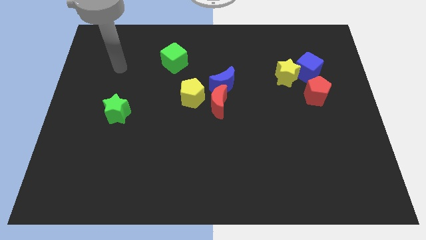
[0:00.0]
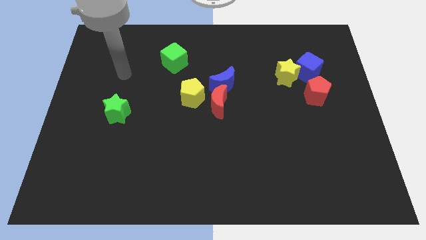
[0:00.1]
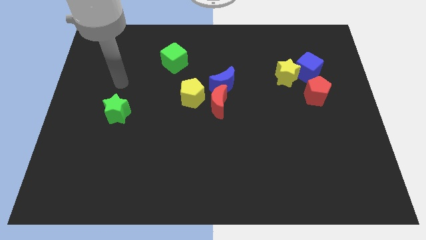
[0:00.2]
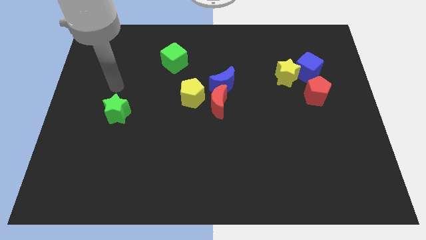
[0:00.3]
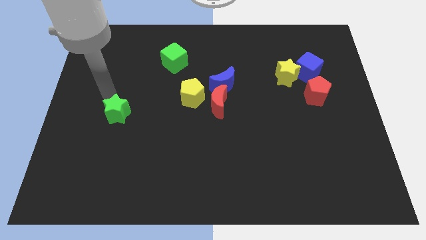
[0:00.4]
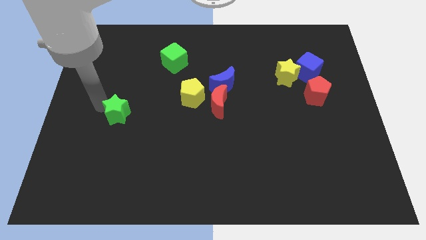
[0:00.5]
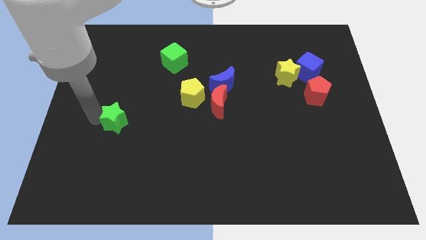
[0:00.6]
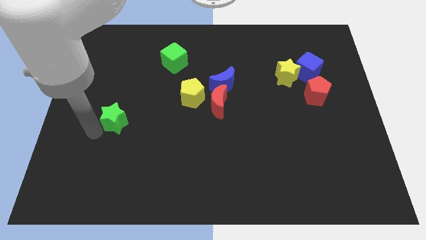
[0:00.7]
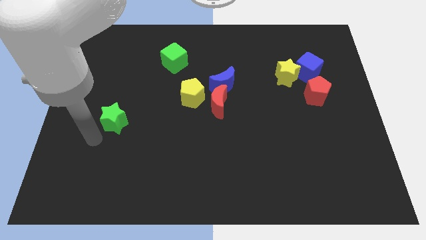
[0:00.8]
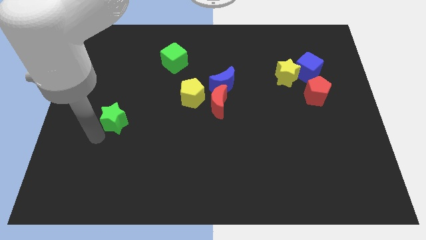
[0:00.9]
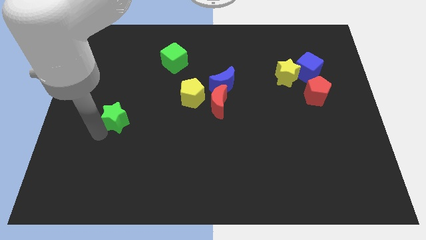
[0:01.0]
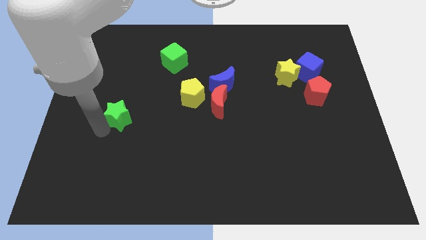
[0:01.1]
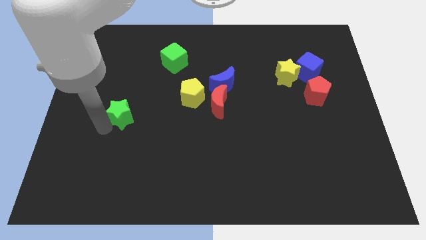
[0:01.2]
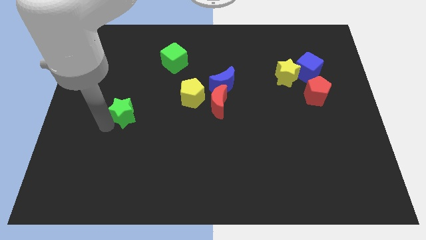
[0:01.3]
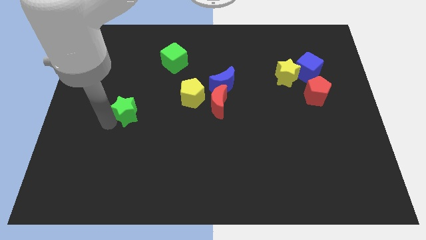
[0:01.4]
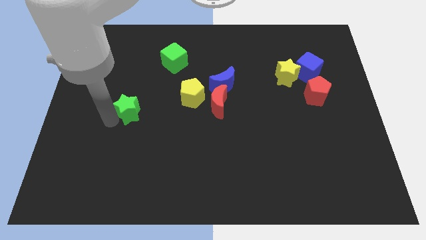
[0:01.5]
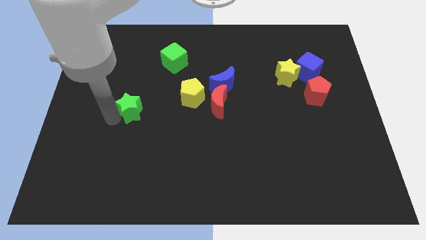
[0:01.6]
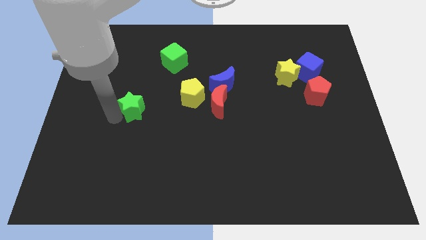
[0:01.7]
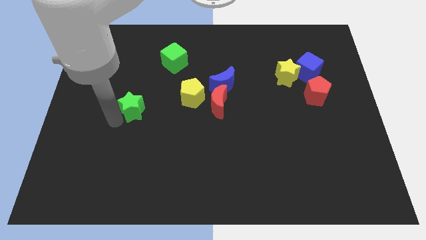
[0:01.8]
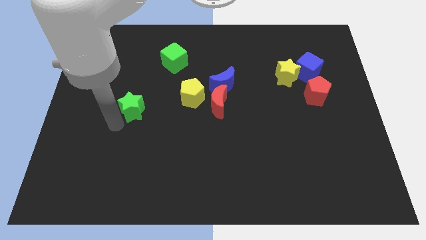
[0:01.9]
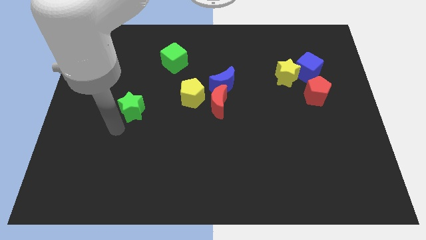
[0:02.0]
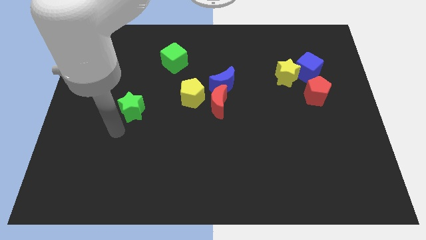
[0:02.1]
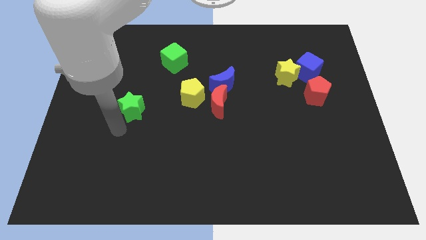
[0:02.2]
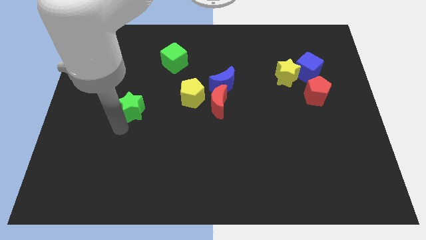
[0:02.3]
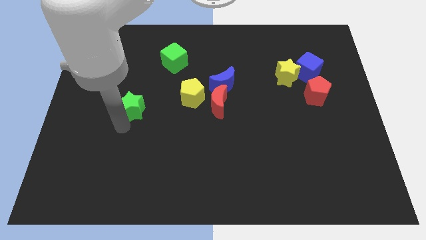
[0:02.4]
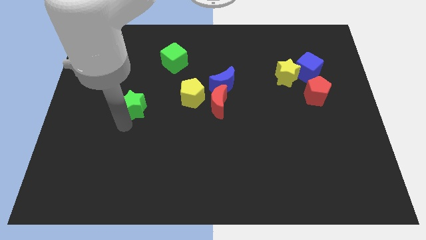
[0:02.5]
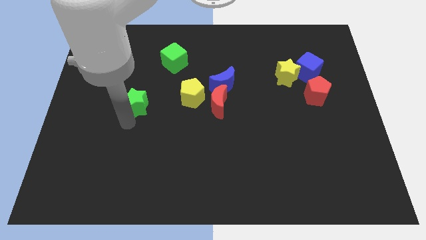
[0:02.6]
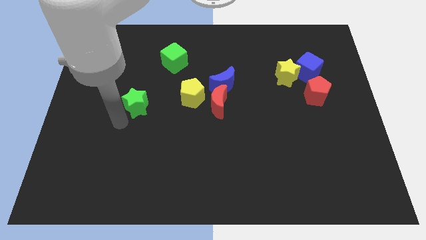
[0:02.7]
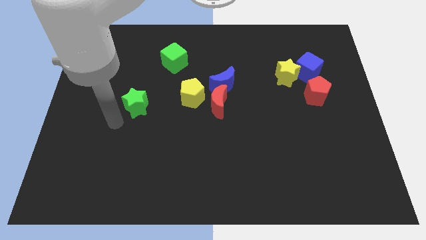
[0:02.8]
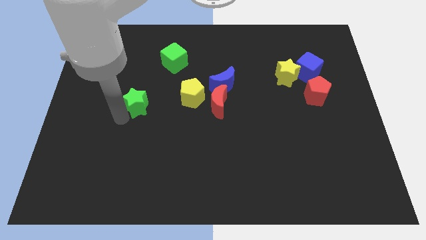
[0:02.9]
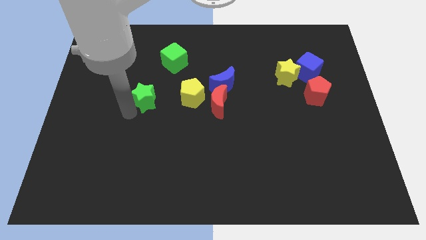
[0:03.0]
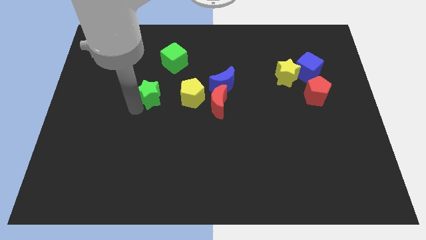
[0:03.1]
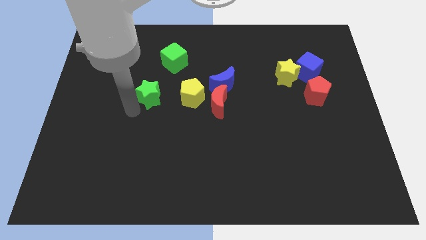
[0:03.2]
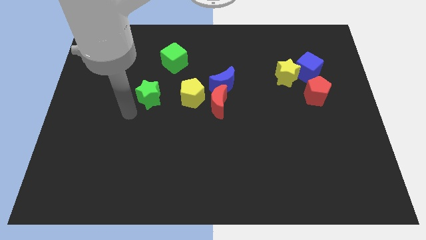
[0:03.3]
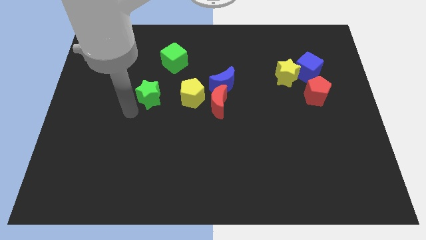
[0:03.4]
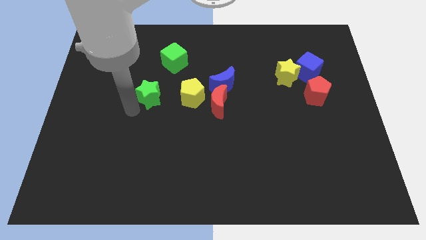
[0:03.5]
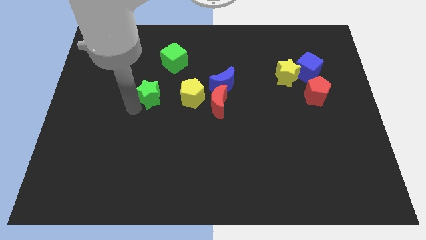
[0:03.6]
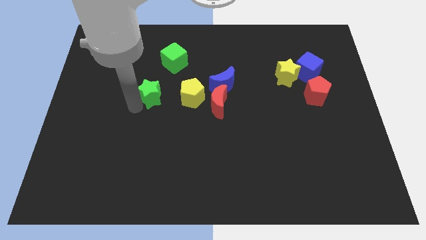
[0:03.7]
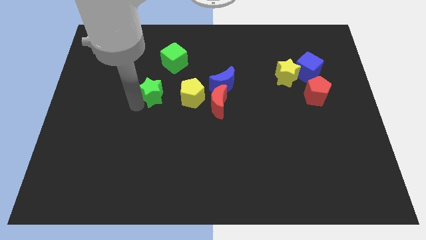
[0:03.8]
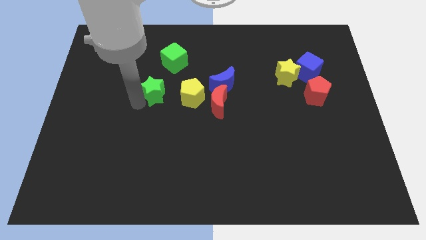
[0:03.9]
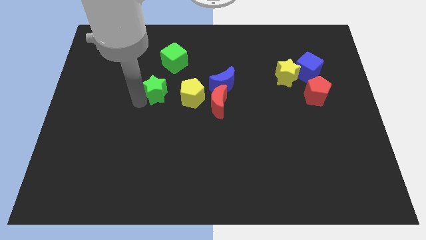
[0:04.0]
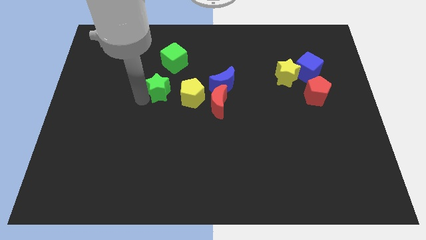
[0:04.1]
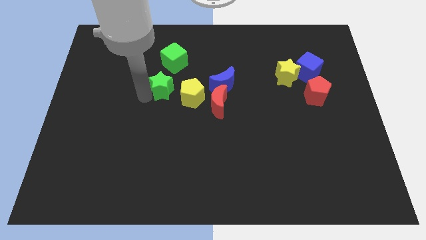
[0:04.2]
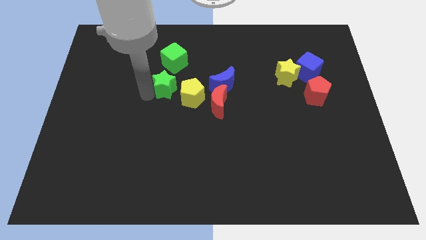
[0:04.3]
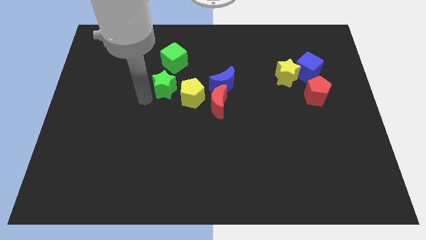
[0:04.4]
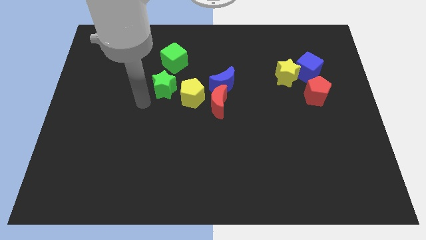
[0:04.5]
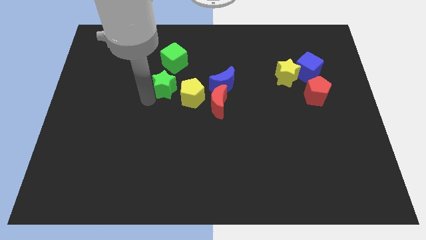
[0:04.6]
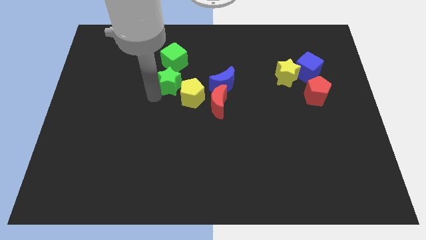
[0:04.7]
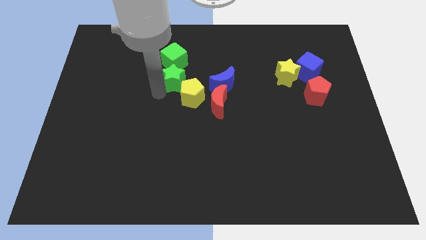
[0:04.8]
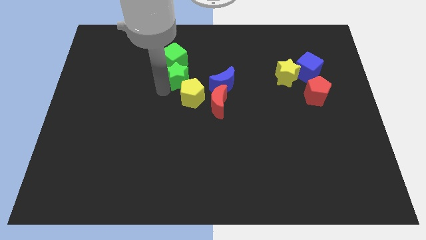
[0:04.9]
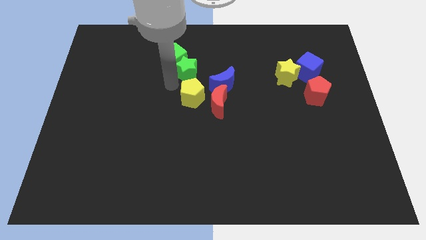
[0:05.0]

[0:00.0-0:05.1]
move the green star just right of the green cube

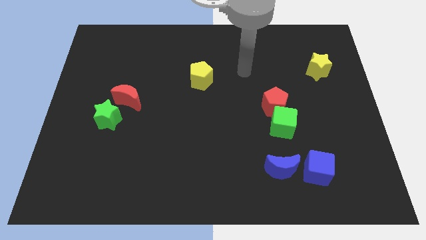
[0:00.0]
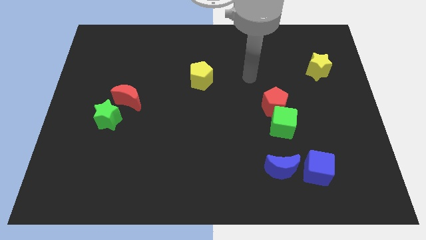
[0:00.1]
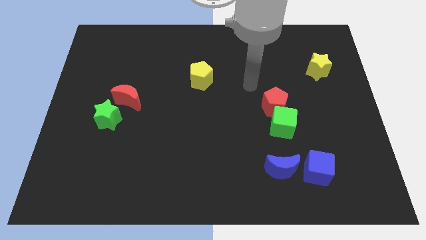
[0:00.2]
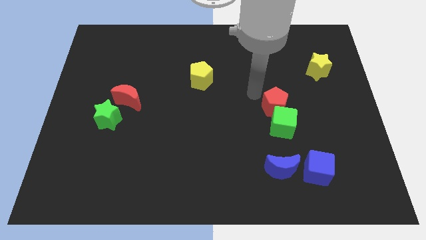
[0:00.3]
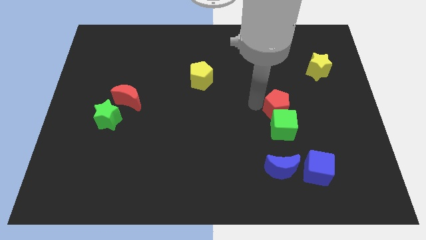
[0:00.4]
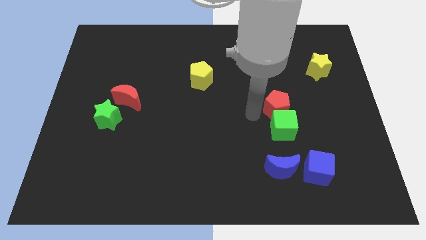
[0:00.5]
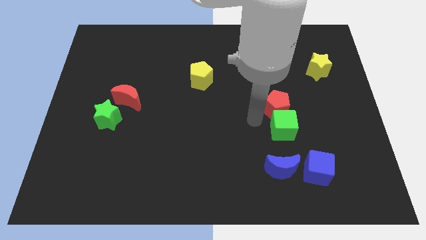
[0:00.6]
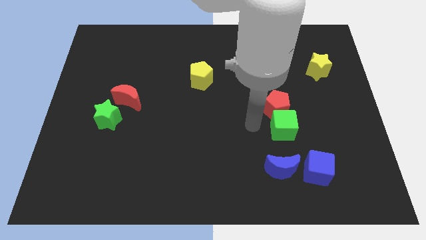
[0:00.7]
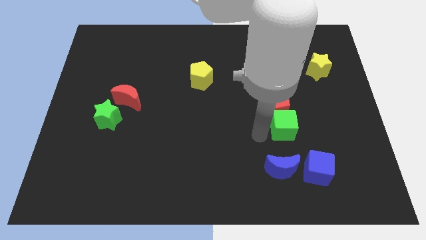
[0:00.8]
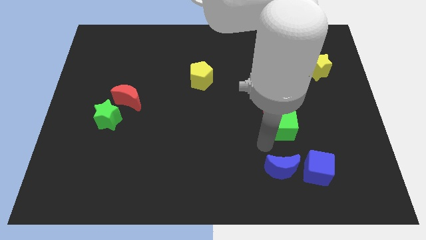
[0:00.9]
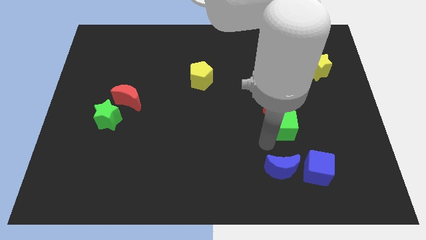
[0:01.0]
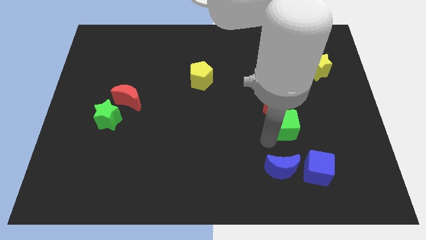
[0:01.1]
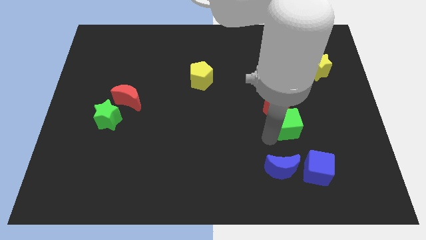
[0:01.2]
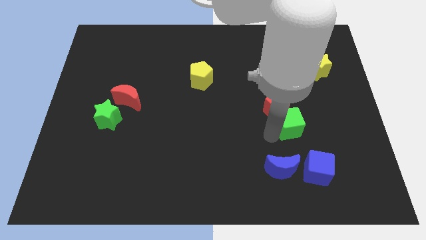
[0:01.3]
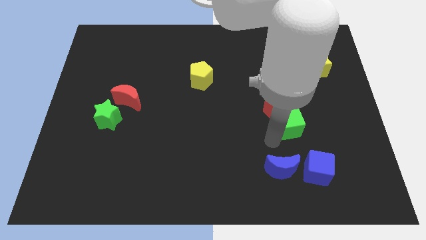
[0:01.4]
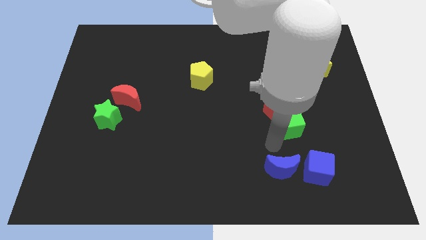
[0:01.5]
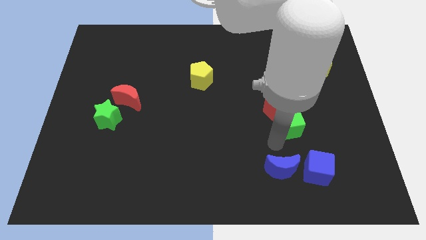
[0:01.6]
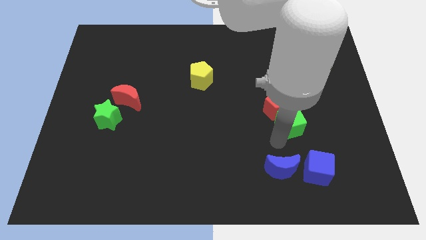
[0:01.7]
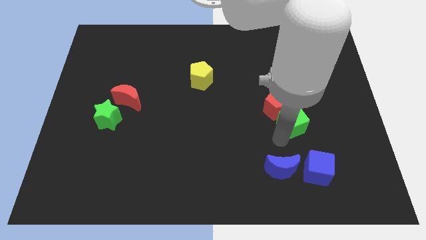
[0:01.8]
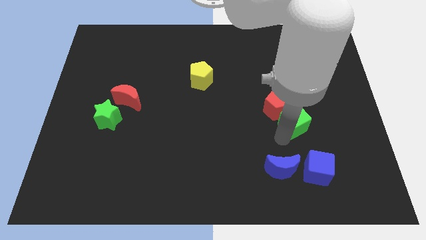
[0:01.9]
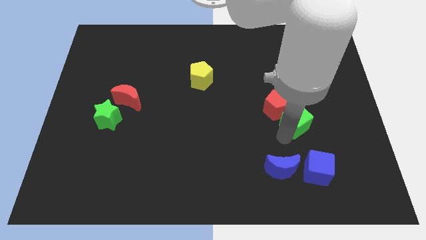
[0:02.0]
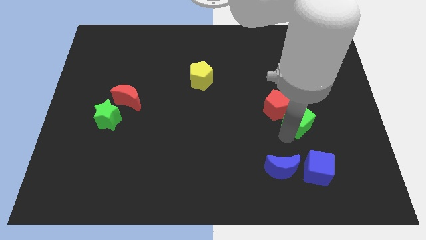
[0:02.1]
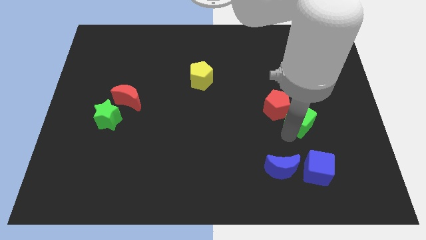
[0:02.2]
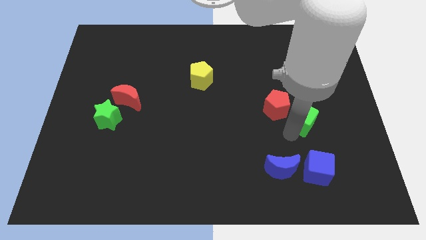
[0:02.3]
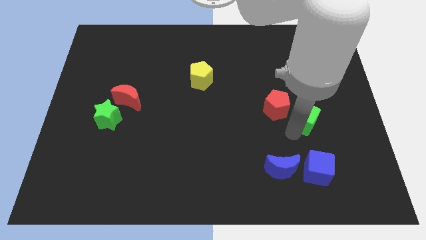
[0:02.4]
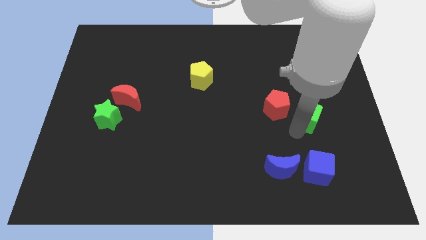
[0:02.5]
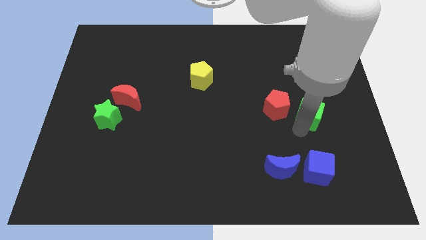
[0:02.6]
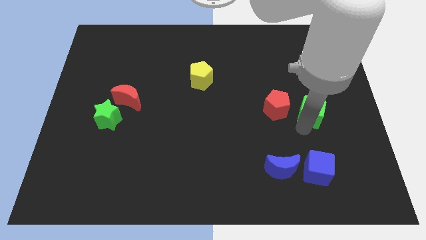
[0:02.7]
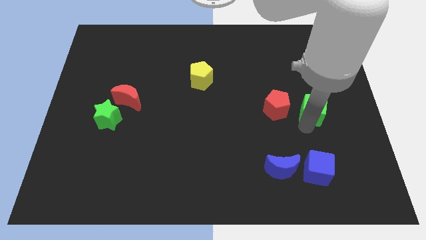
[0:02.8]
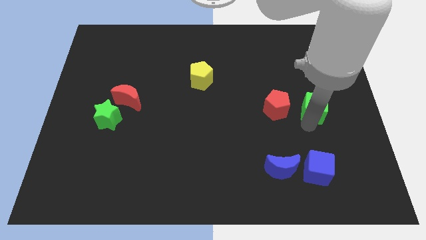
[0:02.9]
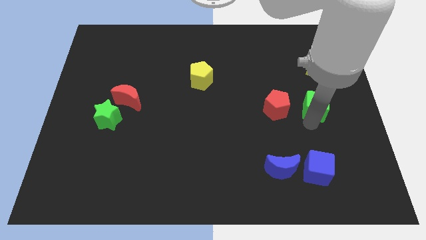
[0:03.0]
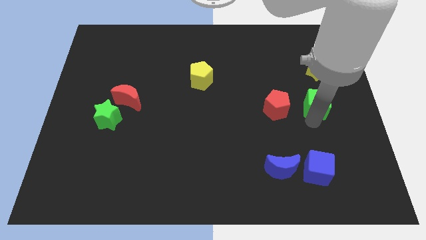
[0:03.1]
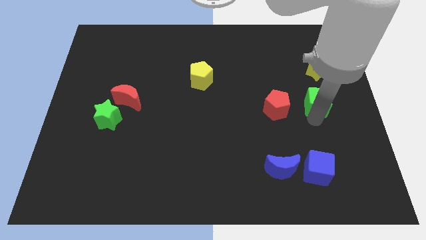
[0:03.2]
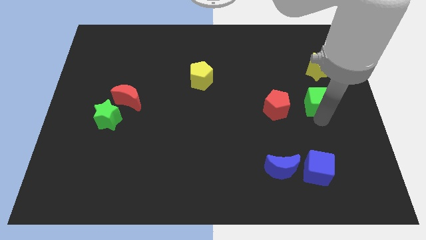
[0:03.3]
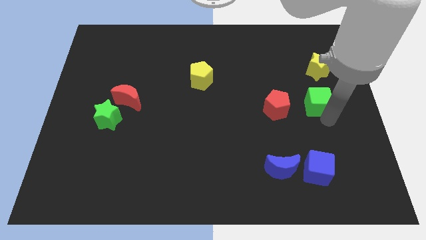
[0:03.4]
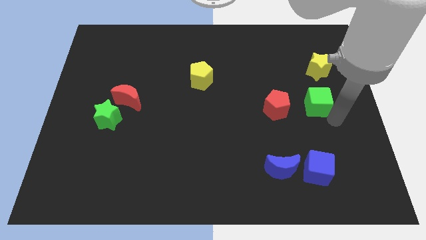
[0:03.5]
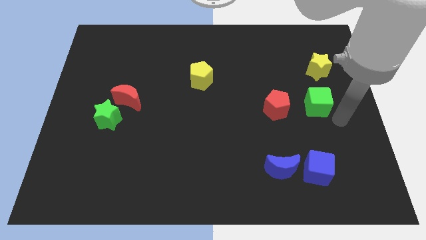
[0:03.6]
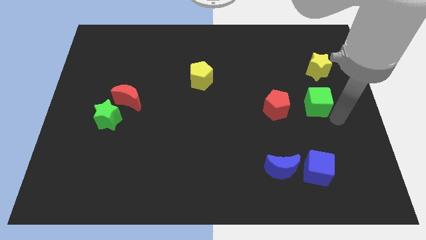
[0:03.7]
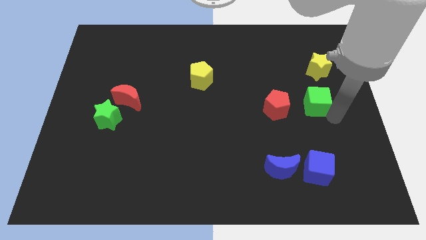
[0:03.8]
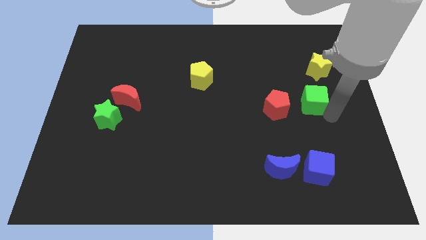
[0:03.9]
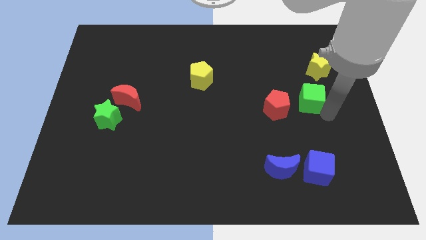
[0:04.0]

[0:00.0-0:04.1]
slide the green cube to the top right side of the red pentagon
